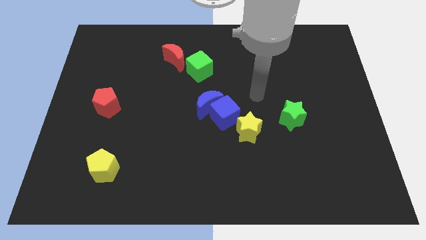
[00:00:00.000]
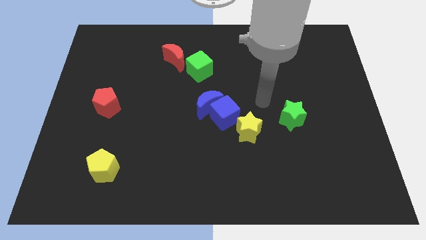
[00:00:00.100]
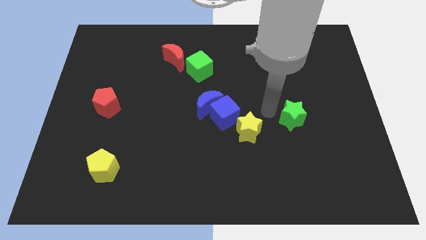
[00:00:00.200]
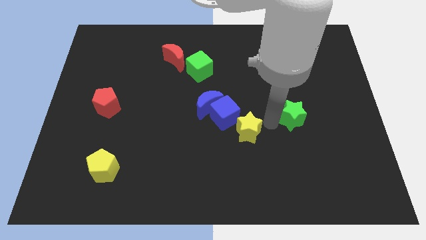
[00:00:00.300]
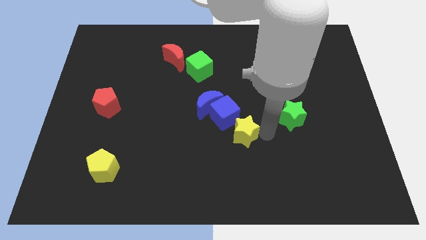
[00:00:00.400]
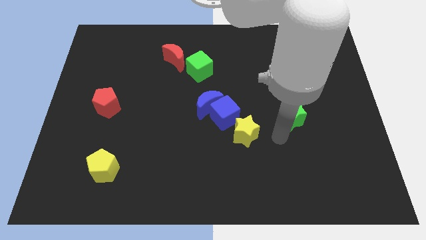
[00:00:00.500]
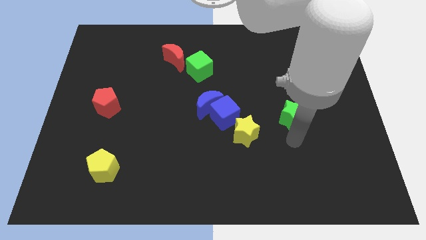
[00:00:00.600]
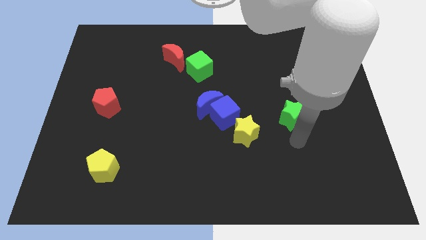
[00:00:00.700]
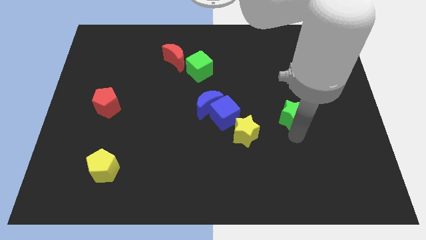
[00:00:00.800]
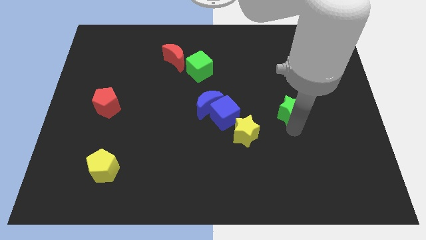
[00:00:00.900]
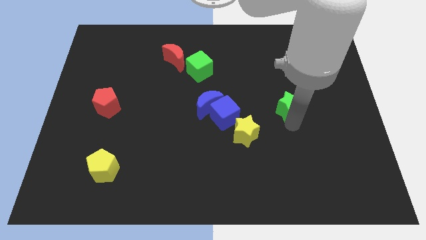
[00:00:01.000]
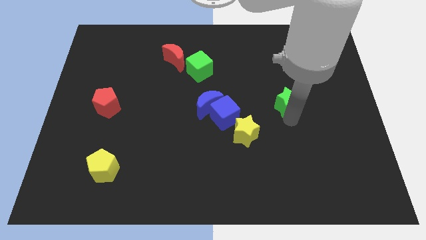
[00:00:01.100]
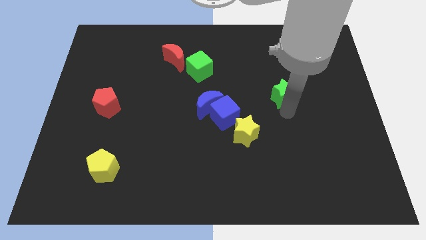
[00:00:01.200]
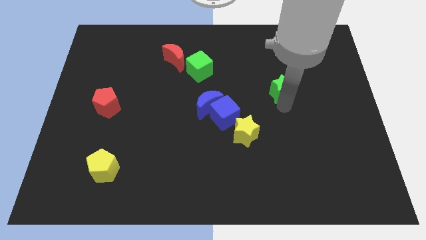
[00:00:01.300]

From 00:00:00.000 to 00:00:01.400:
slide the green star slightly upwards

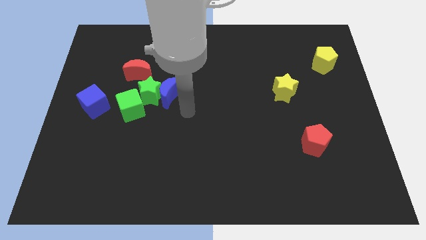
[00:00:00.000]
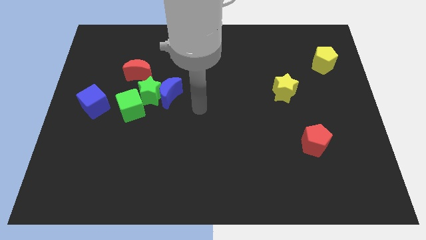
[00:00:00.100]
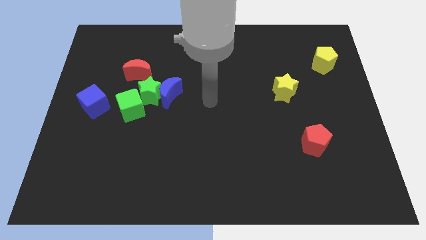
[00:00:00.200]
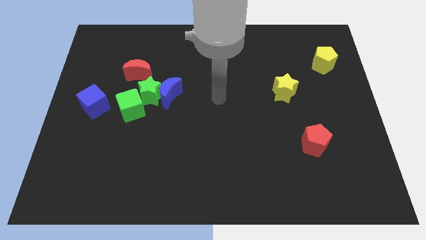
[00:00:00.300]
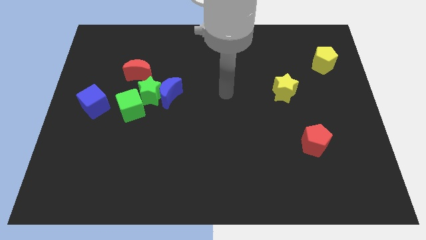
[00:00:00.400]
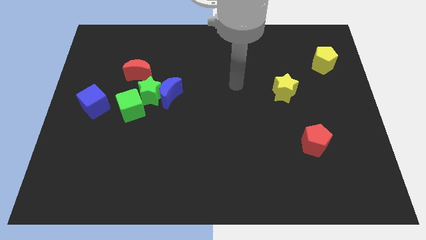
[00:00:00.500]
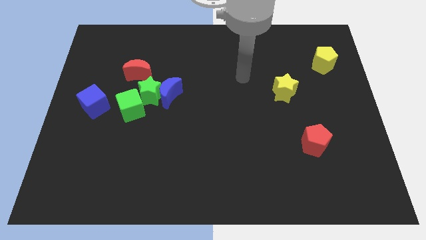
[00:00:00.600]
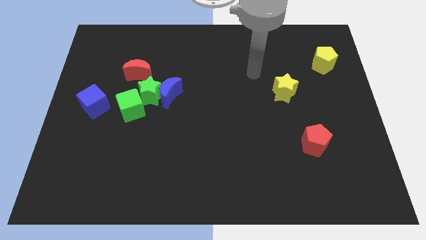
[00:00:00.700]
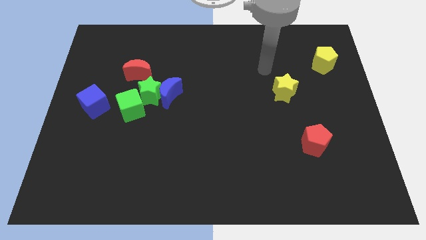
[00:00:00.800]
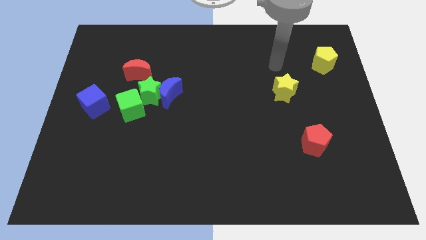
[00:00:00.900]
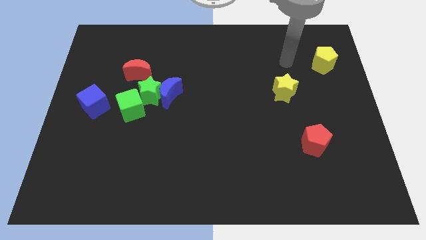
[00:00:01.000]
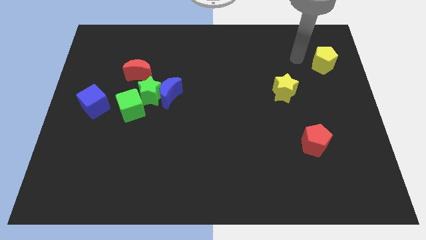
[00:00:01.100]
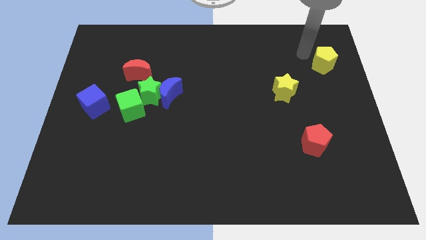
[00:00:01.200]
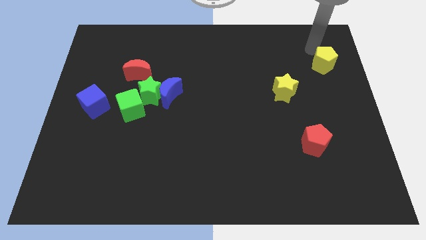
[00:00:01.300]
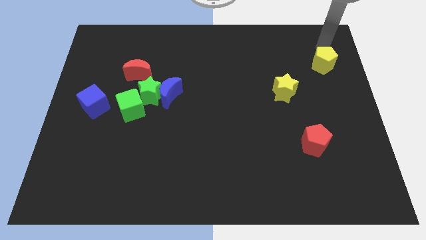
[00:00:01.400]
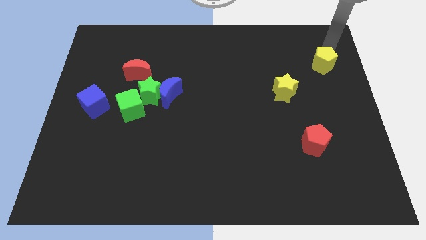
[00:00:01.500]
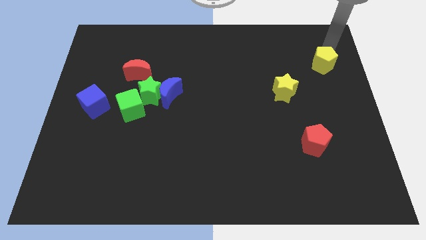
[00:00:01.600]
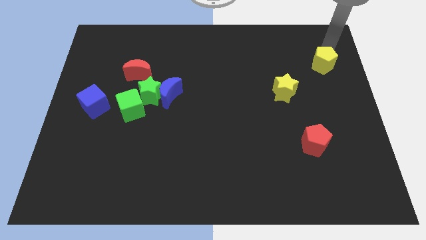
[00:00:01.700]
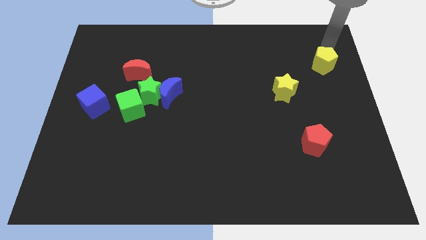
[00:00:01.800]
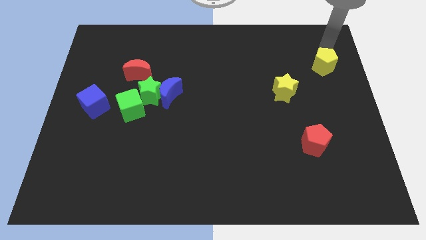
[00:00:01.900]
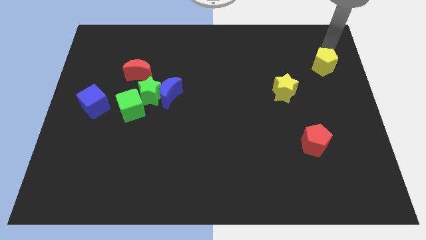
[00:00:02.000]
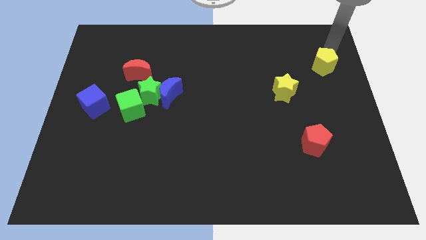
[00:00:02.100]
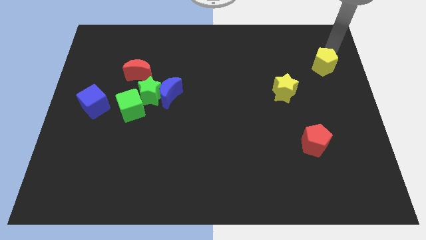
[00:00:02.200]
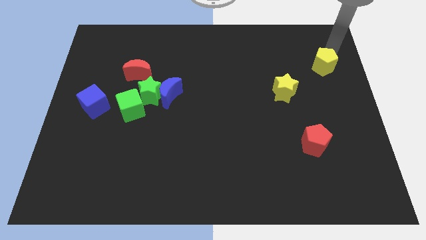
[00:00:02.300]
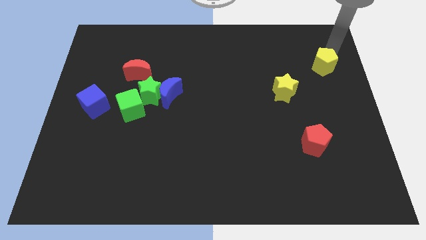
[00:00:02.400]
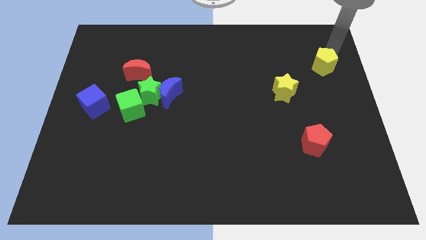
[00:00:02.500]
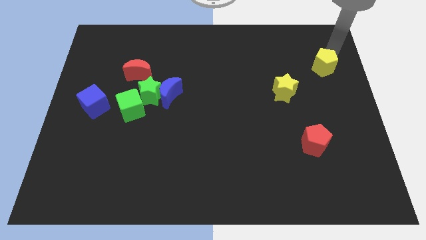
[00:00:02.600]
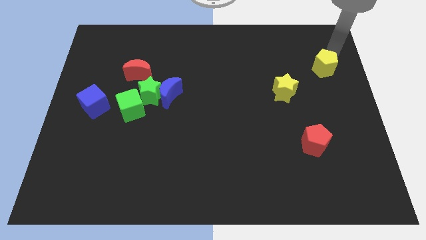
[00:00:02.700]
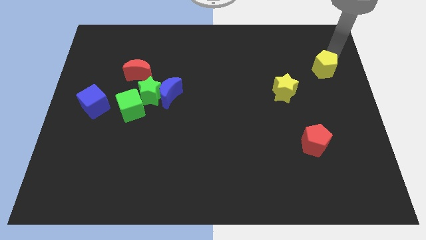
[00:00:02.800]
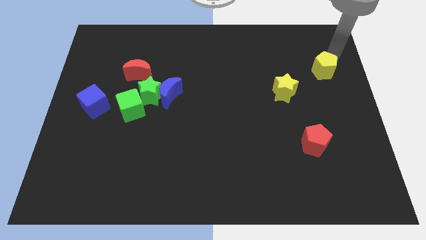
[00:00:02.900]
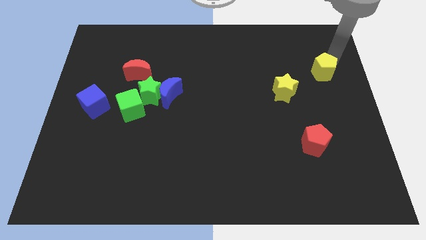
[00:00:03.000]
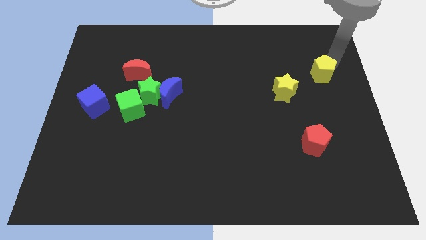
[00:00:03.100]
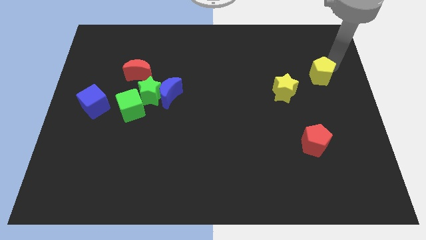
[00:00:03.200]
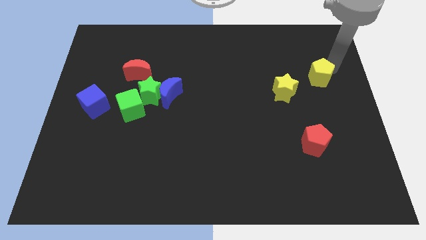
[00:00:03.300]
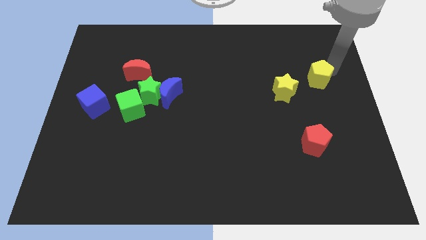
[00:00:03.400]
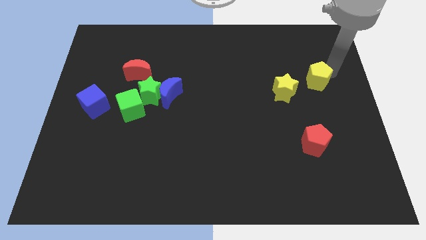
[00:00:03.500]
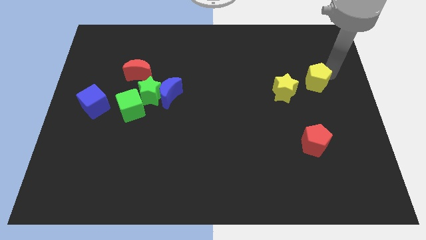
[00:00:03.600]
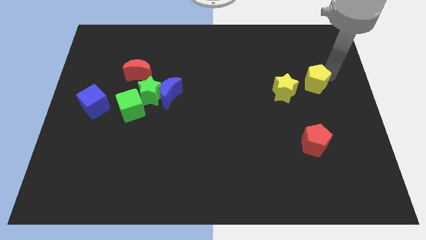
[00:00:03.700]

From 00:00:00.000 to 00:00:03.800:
slightly push the yellow pentagon diagonally downwards and to the left

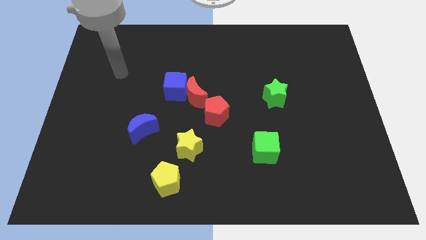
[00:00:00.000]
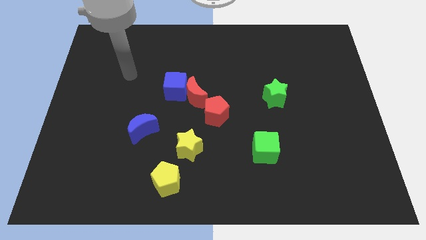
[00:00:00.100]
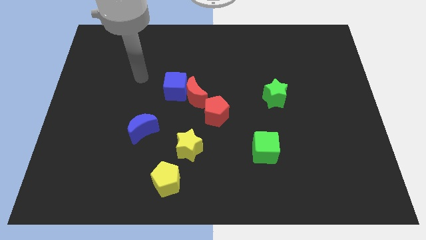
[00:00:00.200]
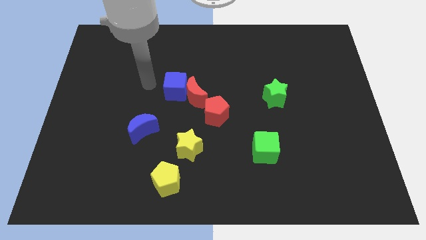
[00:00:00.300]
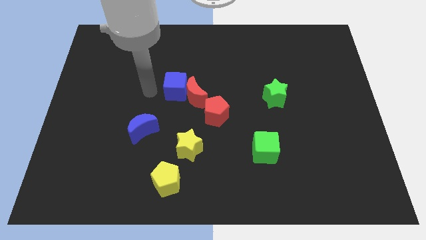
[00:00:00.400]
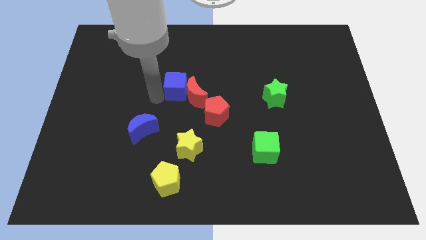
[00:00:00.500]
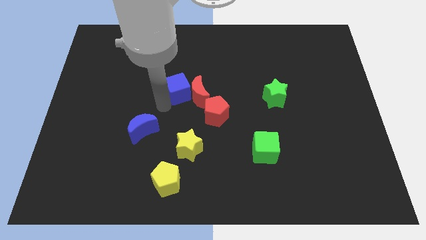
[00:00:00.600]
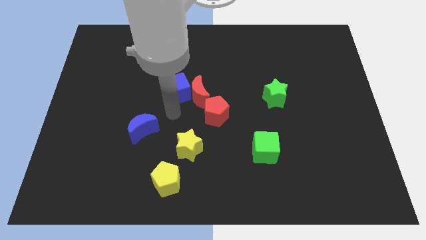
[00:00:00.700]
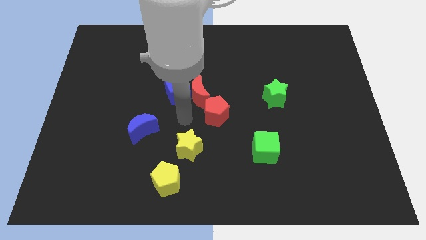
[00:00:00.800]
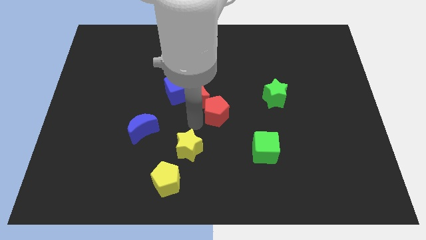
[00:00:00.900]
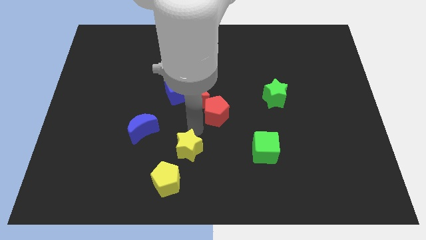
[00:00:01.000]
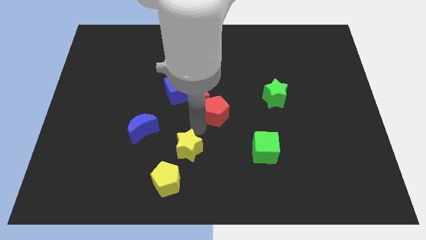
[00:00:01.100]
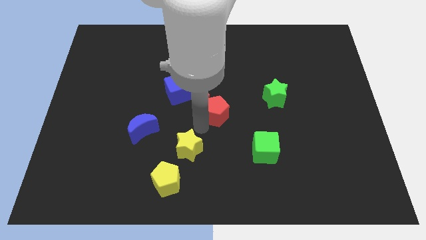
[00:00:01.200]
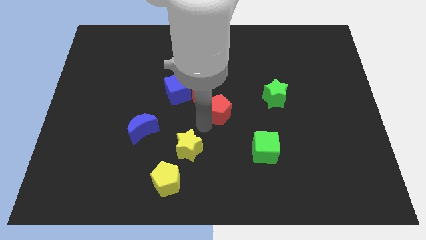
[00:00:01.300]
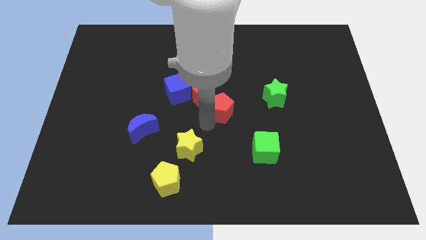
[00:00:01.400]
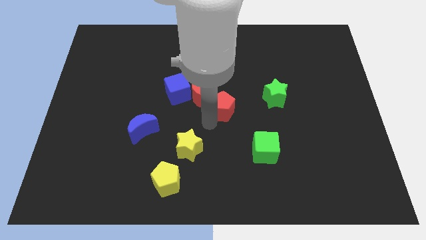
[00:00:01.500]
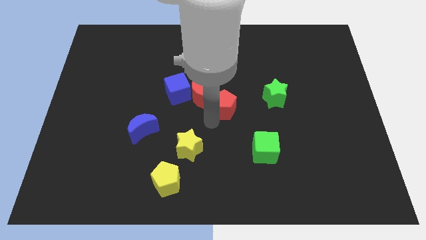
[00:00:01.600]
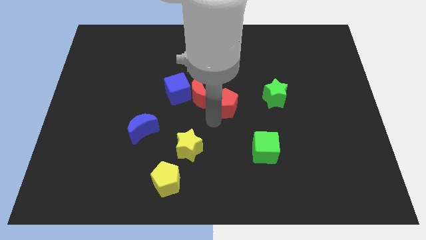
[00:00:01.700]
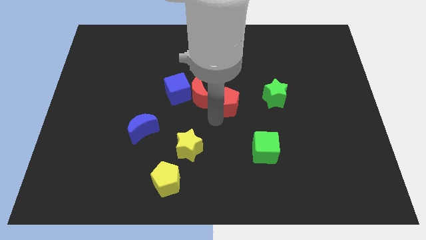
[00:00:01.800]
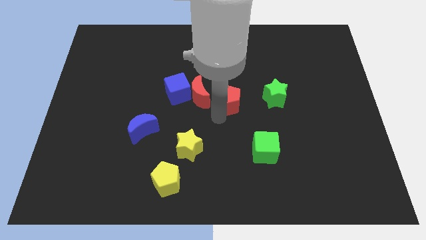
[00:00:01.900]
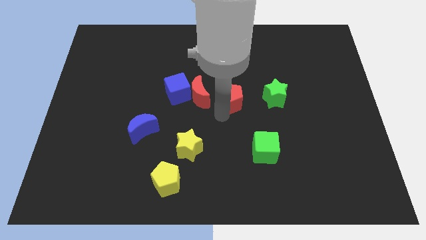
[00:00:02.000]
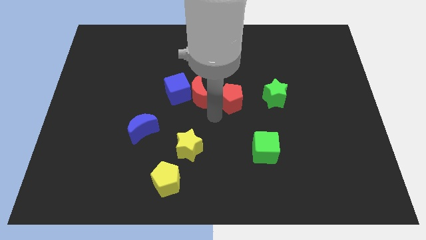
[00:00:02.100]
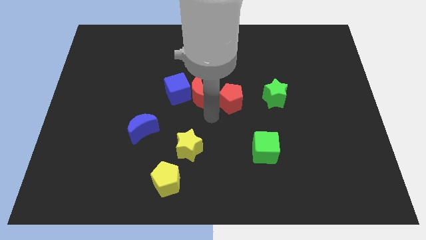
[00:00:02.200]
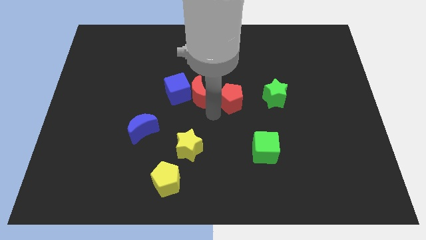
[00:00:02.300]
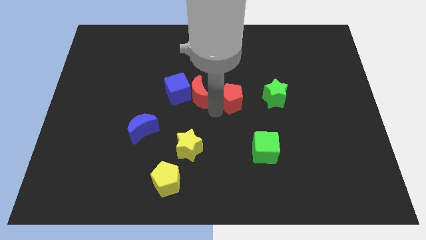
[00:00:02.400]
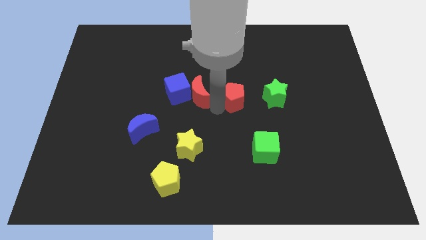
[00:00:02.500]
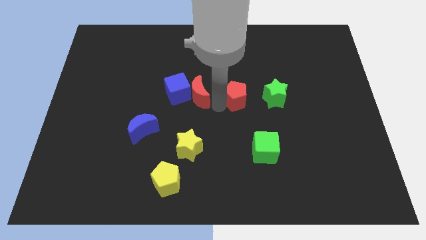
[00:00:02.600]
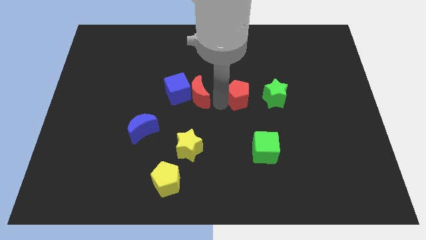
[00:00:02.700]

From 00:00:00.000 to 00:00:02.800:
slide the red pentagon up and then to the right slightly

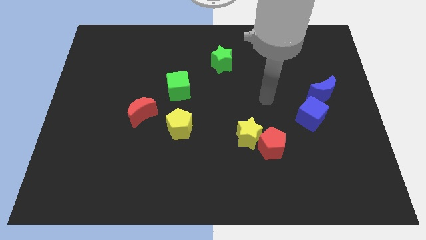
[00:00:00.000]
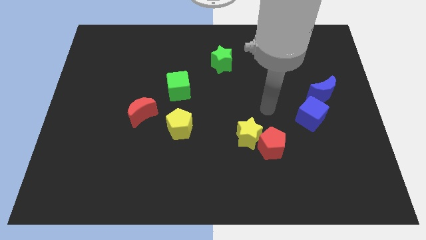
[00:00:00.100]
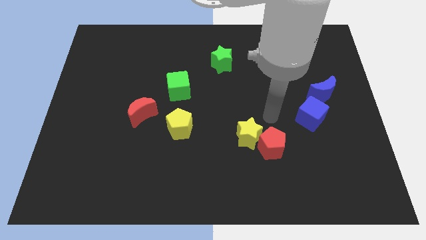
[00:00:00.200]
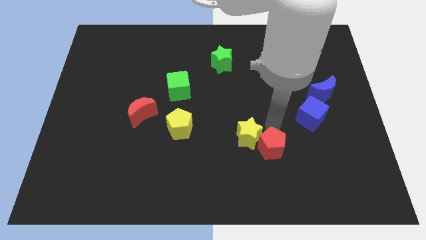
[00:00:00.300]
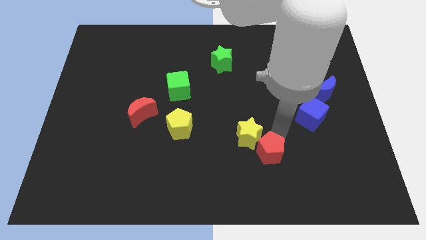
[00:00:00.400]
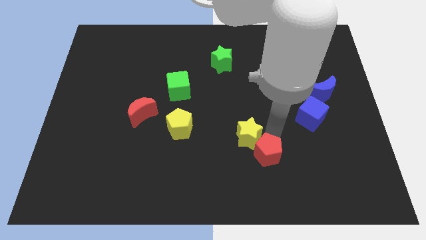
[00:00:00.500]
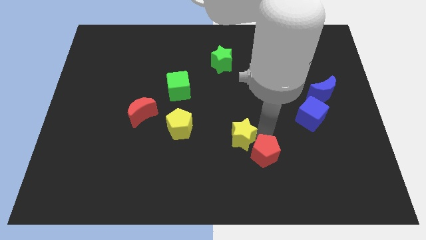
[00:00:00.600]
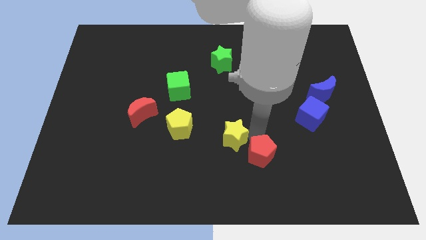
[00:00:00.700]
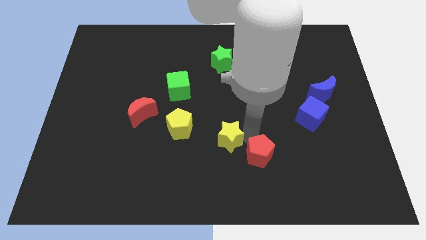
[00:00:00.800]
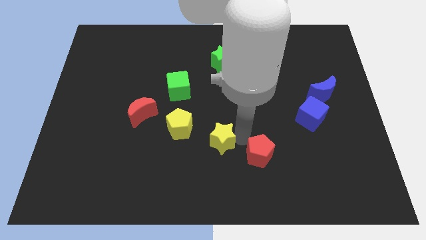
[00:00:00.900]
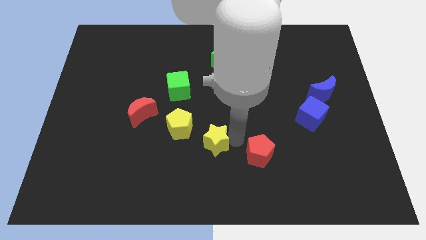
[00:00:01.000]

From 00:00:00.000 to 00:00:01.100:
slightly move the yellow star to the left
